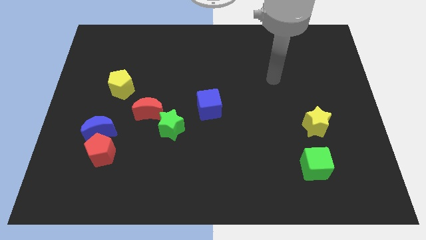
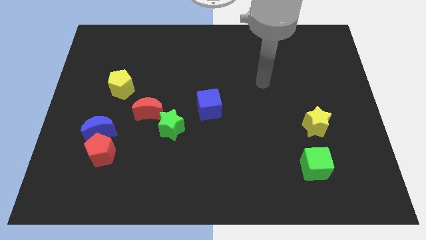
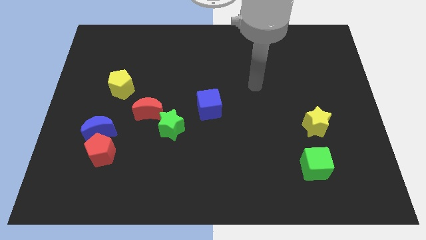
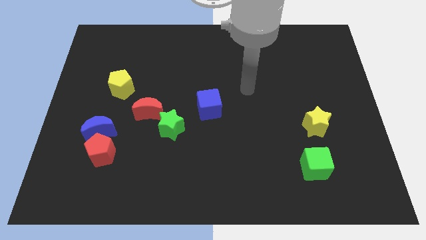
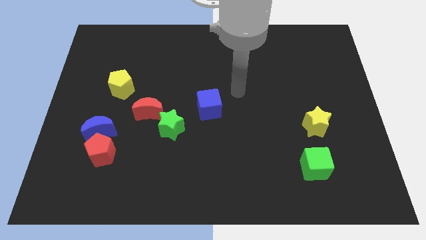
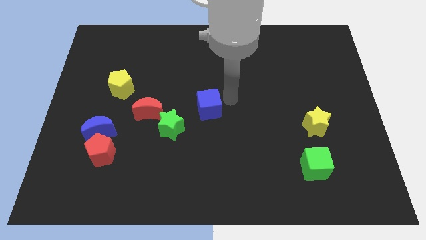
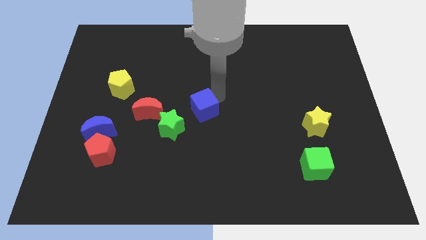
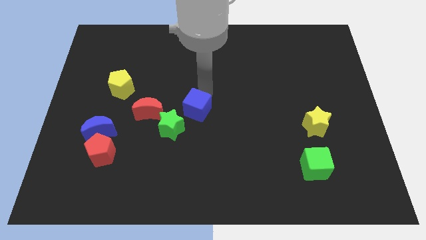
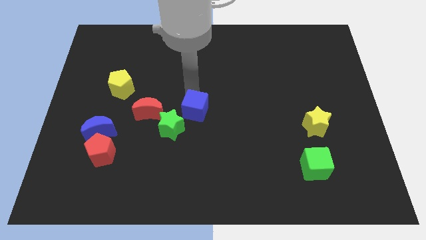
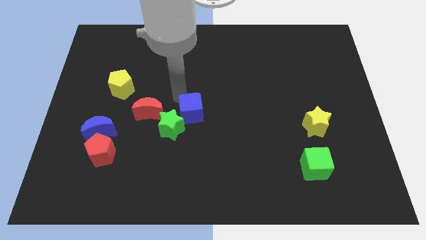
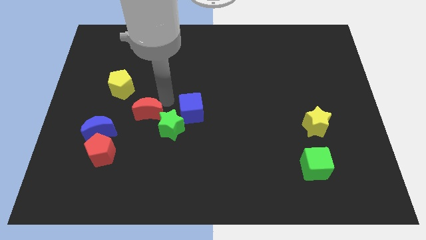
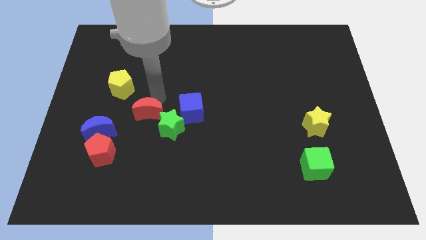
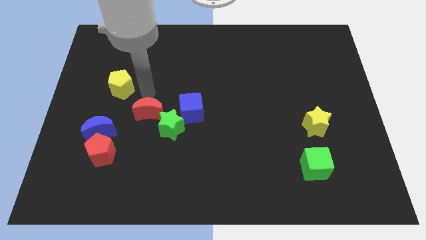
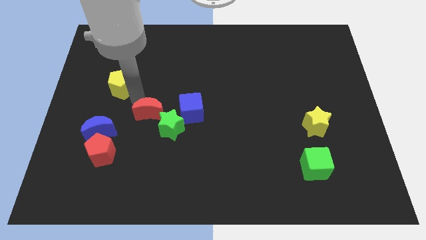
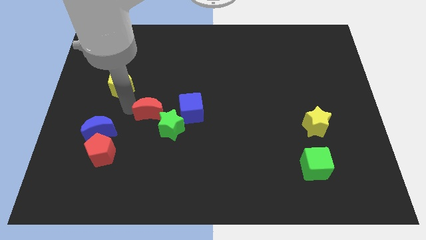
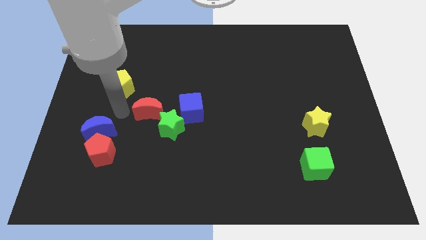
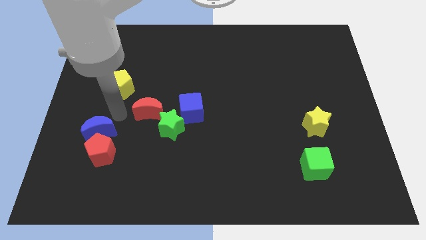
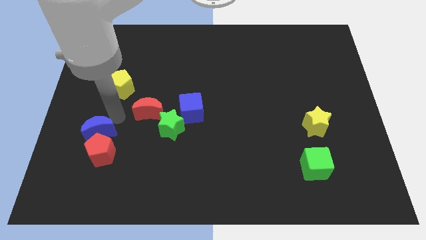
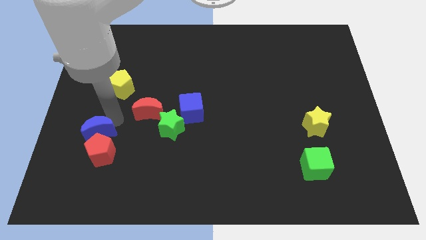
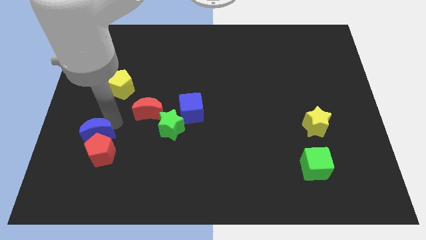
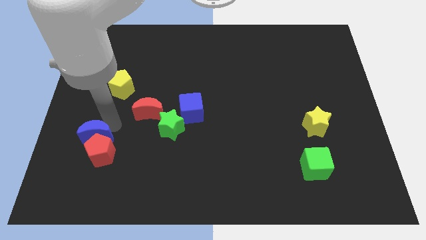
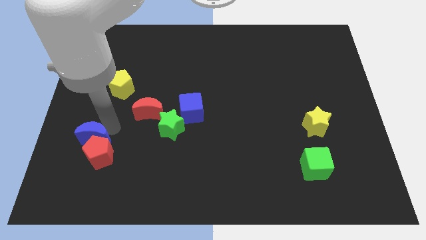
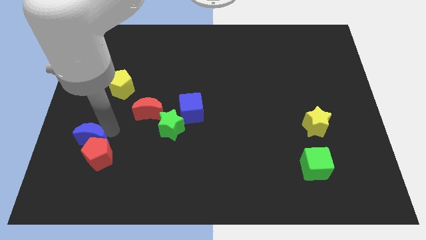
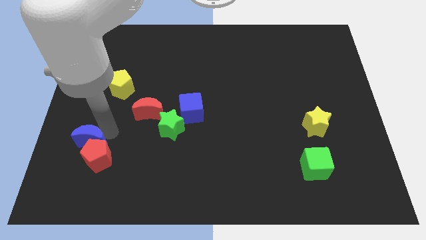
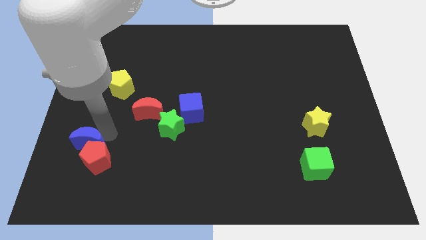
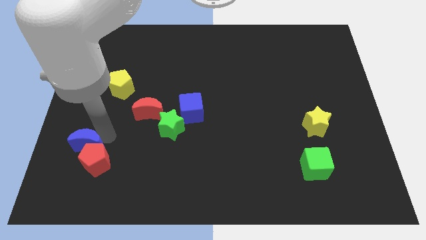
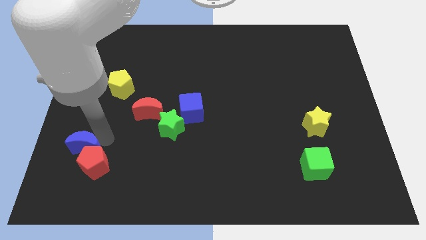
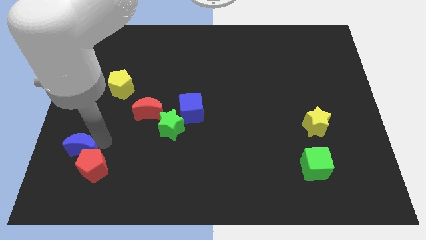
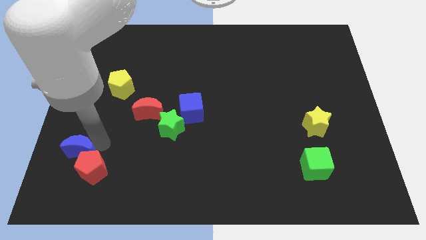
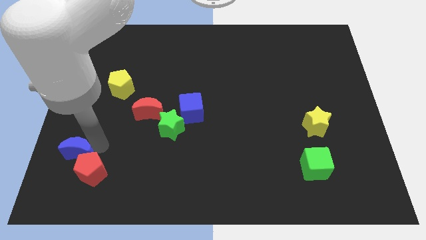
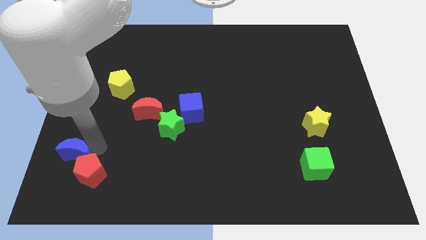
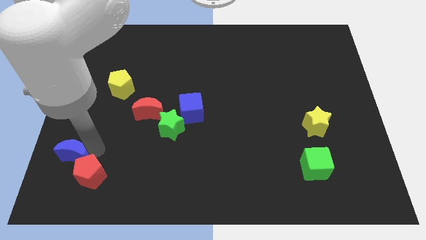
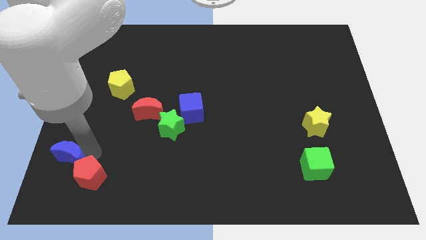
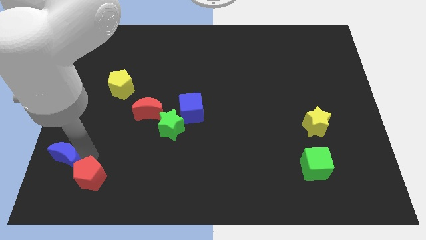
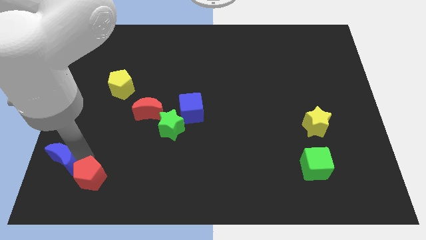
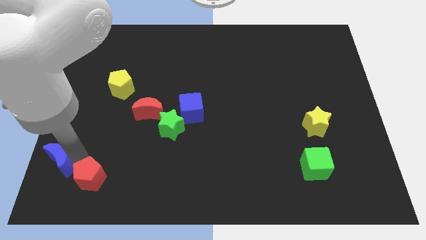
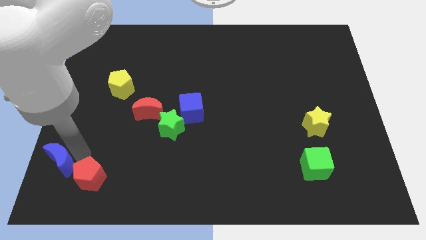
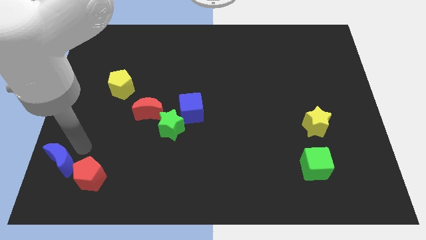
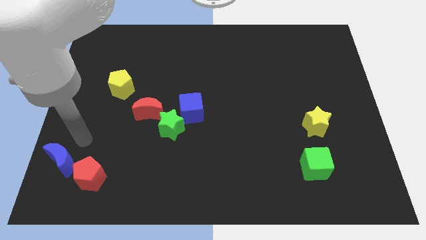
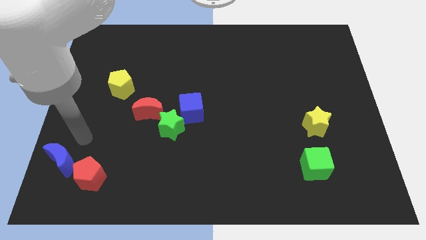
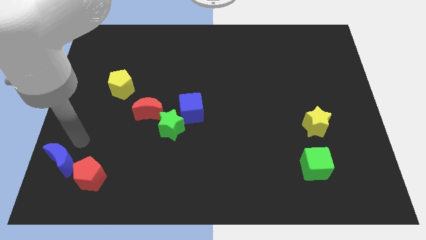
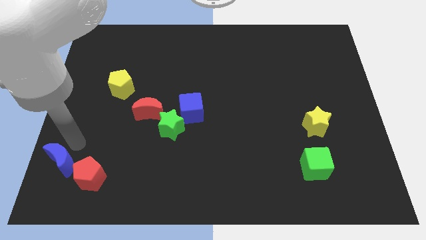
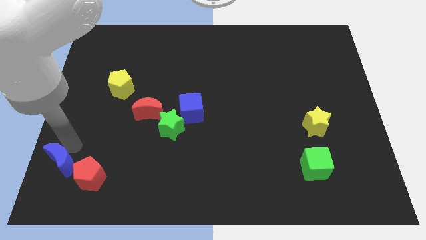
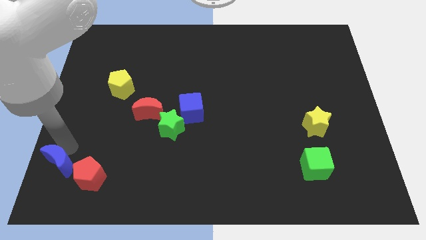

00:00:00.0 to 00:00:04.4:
slide the blue moon to the bottom left corner

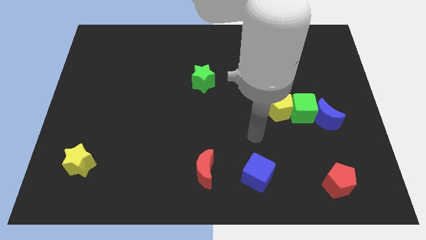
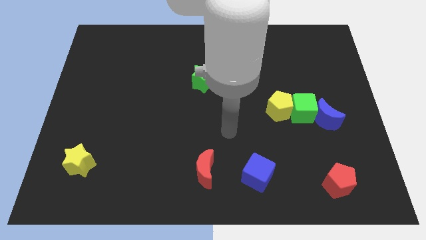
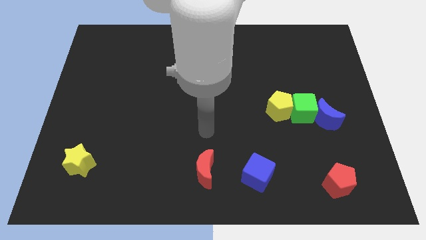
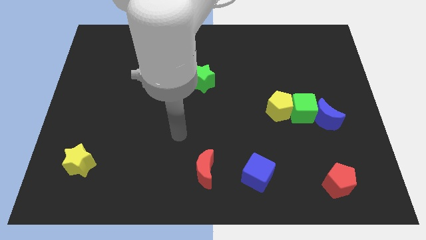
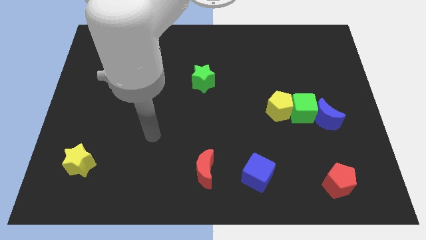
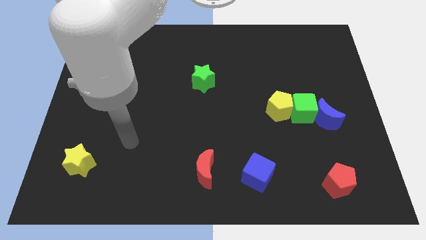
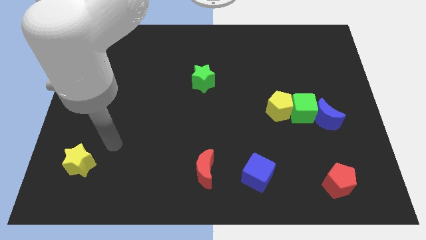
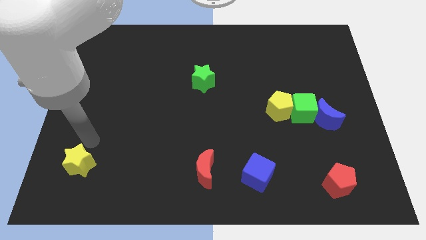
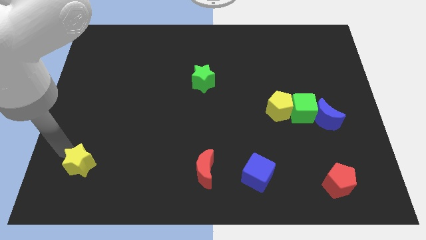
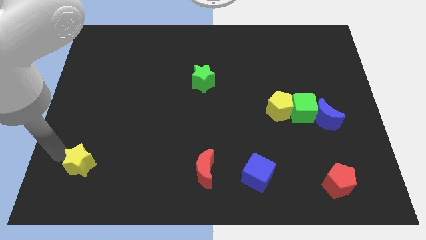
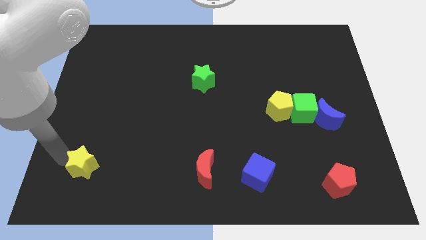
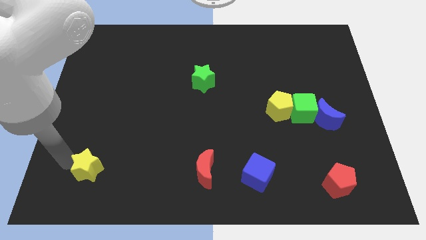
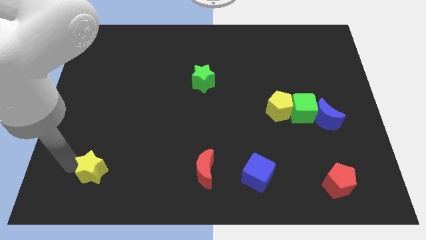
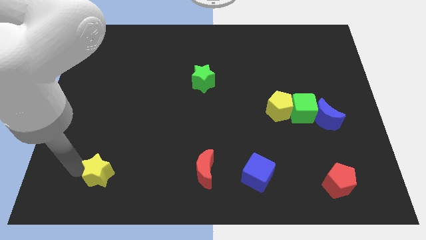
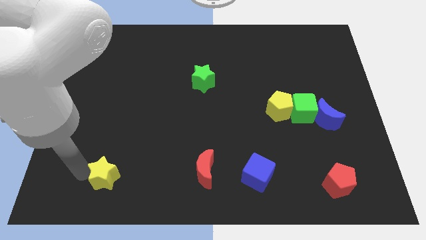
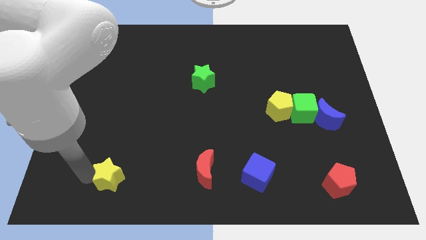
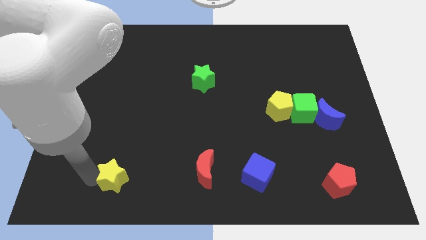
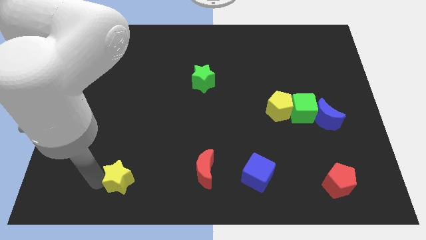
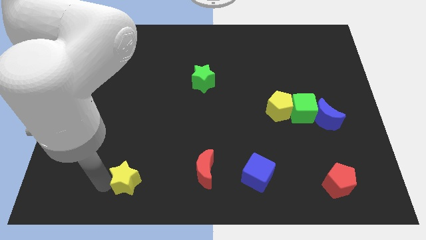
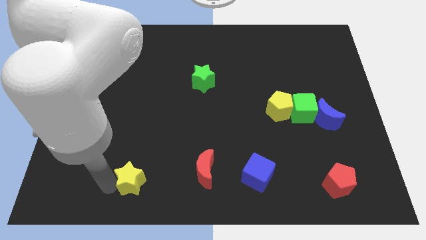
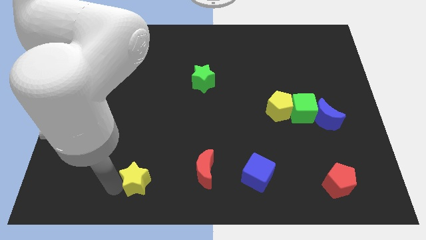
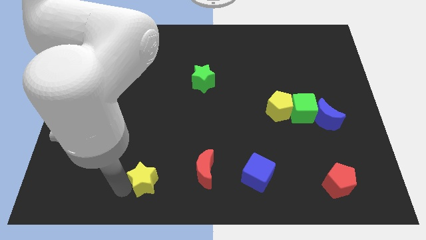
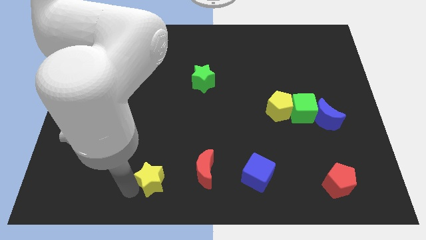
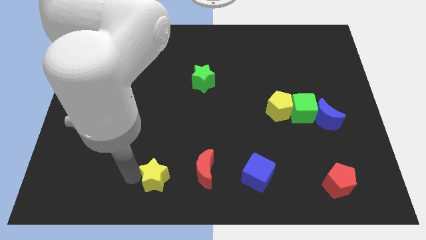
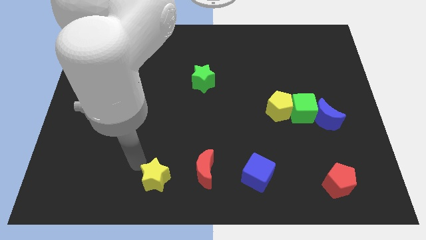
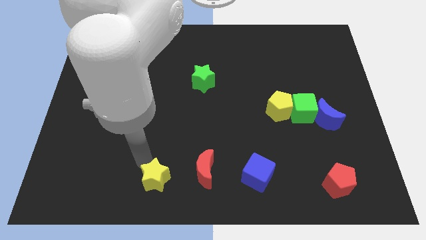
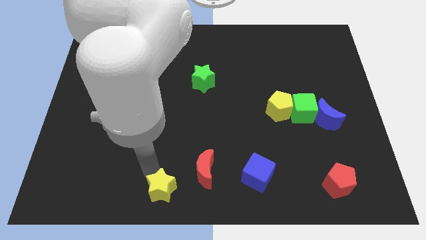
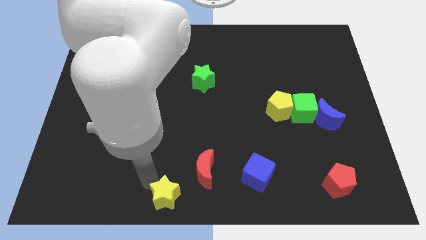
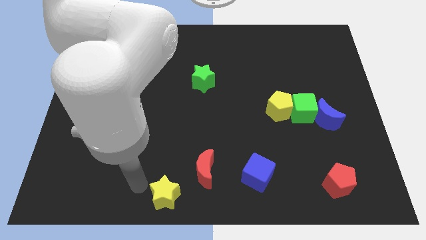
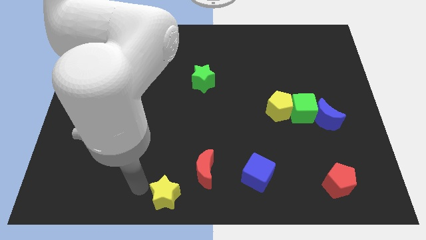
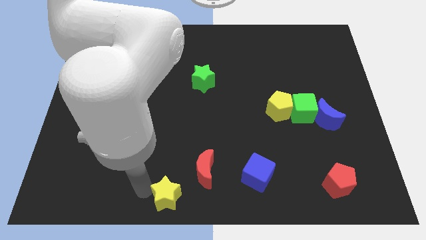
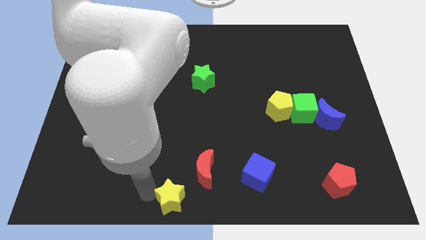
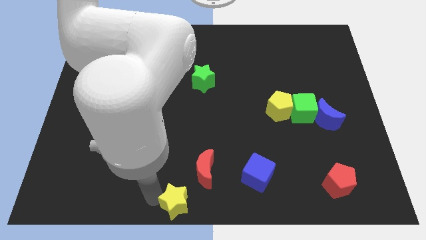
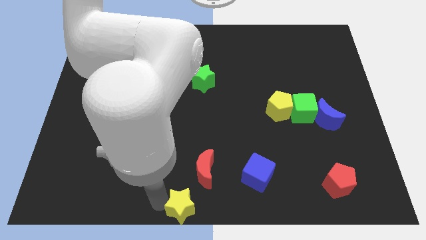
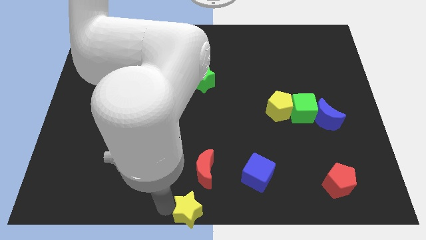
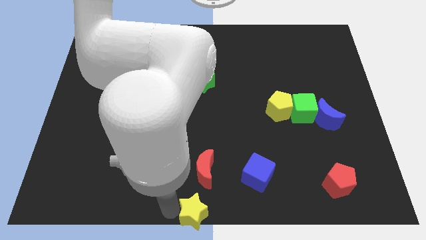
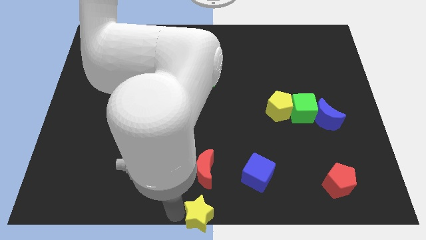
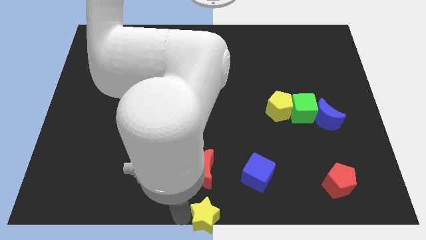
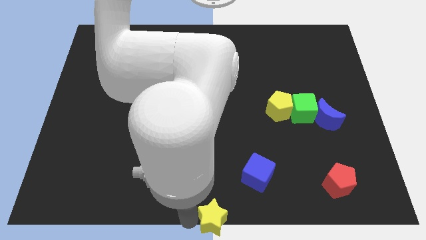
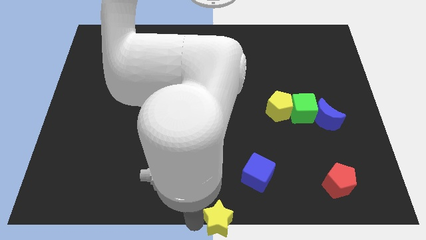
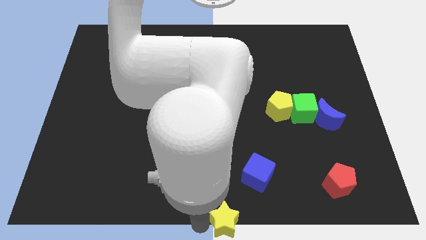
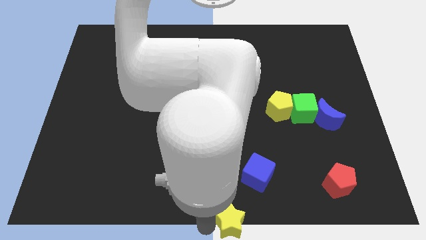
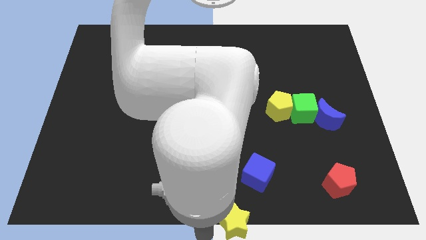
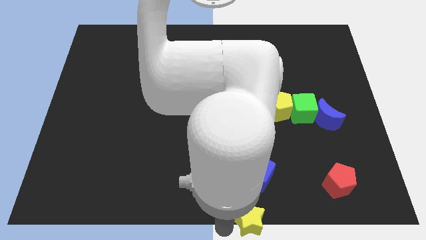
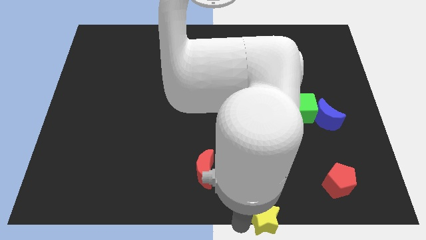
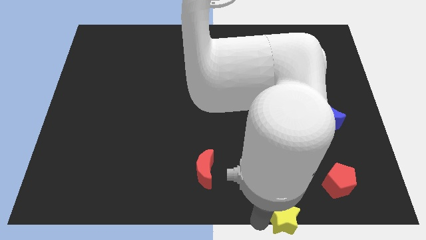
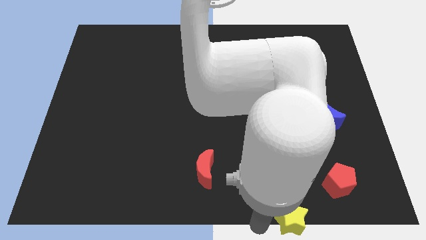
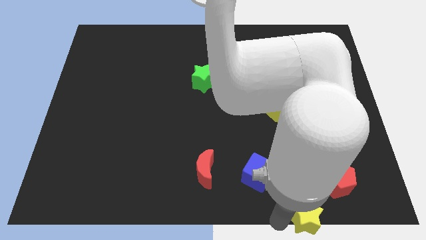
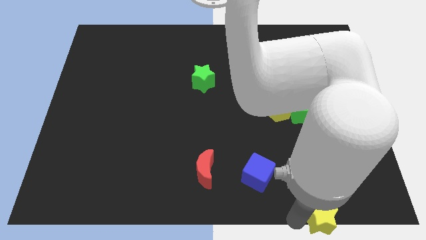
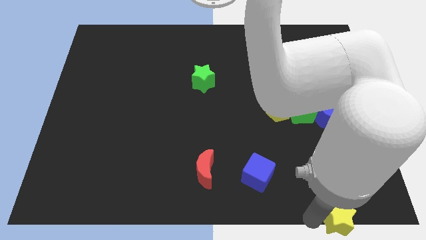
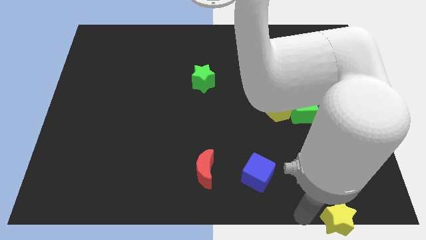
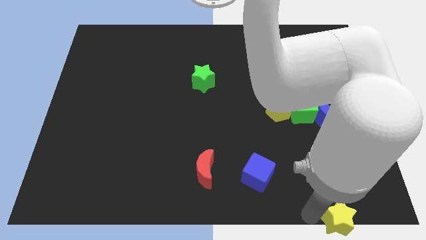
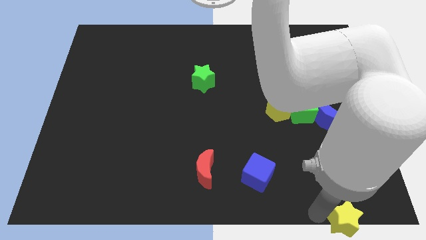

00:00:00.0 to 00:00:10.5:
move the yellow star to the bottom right
